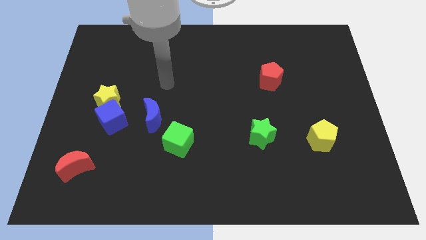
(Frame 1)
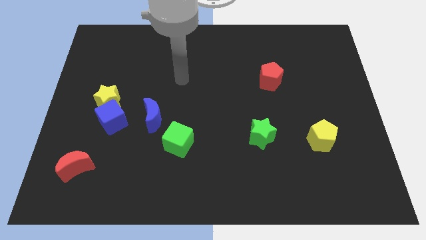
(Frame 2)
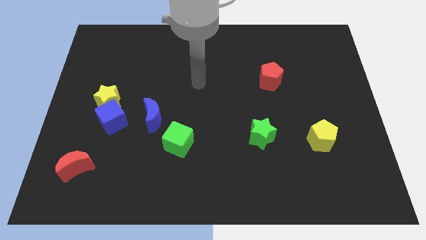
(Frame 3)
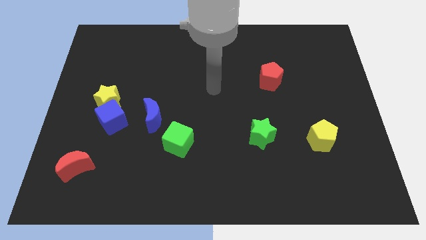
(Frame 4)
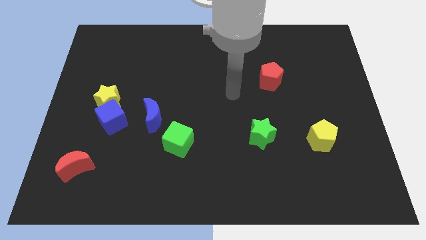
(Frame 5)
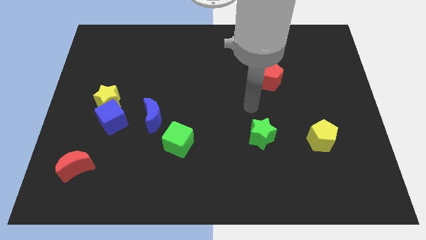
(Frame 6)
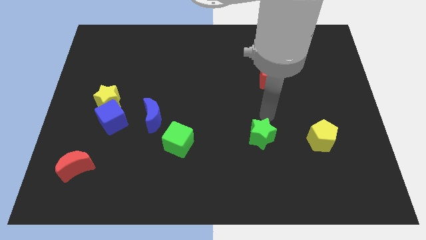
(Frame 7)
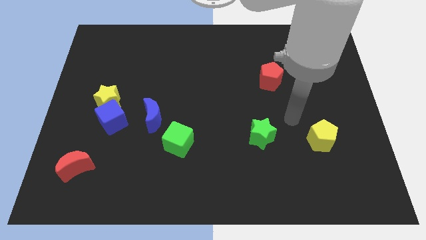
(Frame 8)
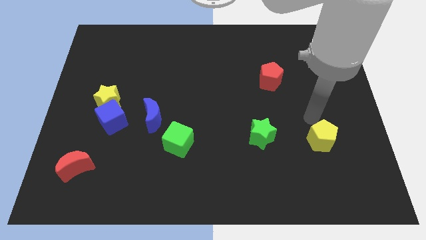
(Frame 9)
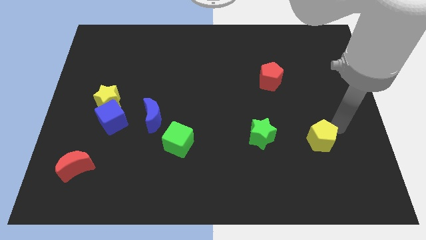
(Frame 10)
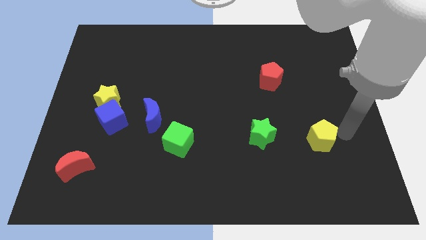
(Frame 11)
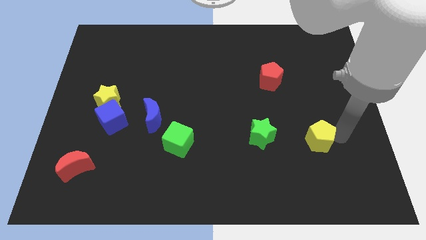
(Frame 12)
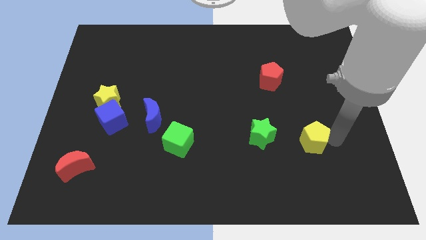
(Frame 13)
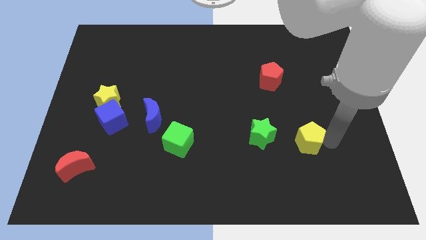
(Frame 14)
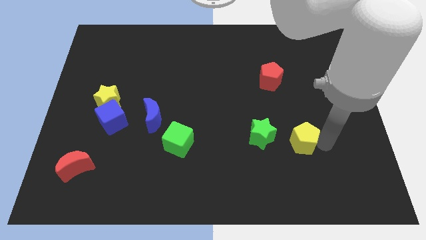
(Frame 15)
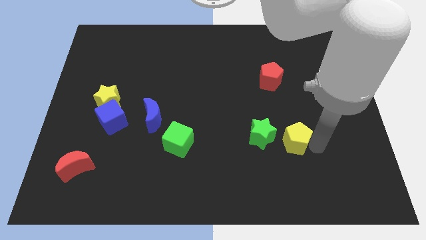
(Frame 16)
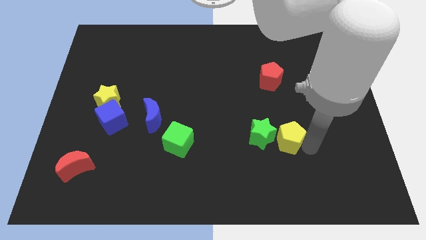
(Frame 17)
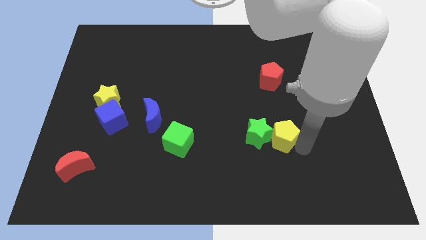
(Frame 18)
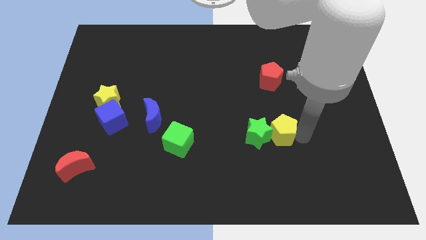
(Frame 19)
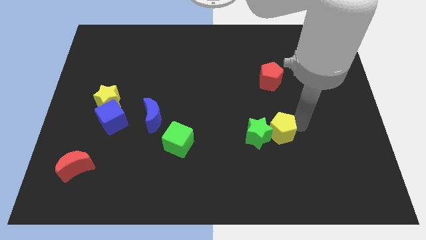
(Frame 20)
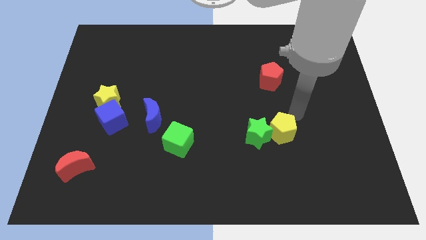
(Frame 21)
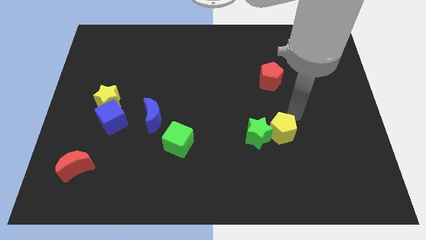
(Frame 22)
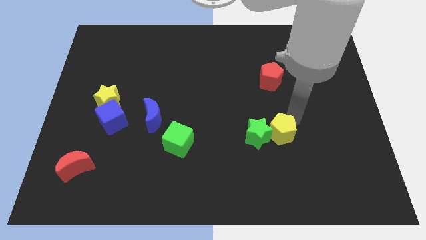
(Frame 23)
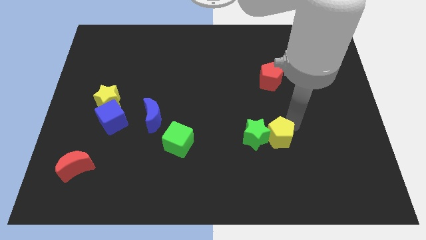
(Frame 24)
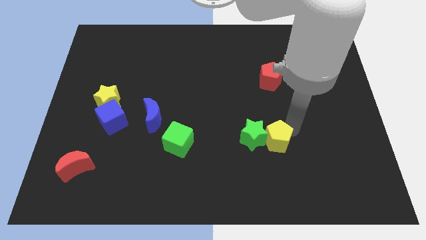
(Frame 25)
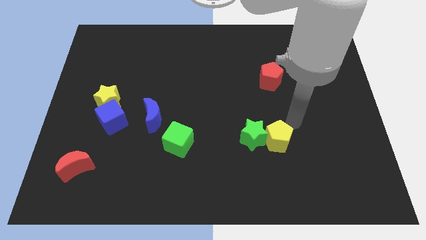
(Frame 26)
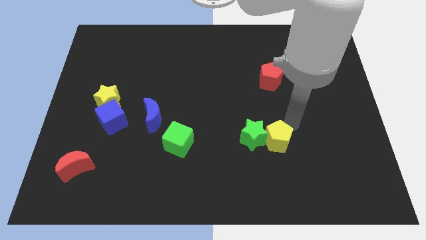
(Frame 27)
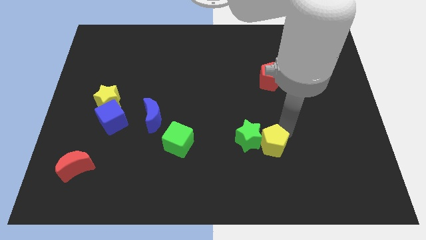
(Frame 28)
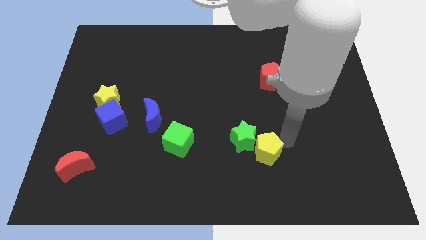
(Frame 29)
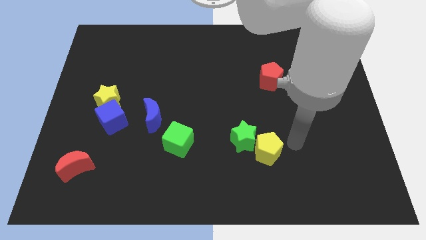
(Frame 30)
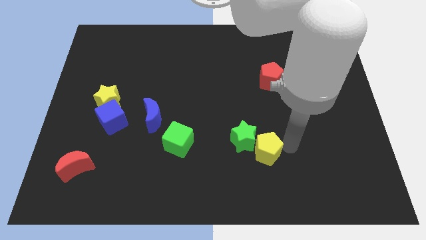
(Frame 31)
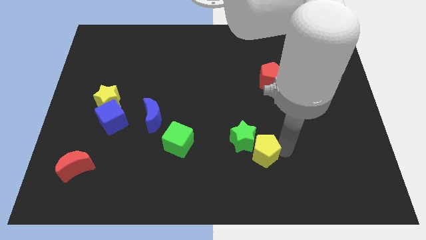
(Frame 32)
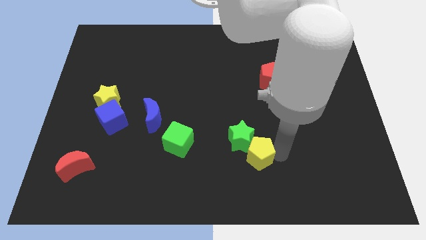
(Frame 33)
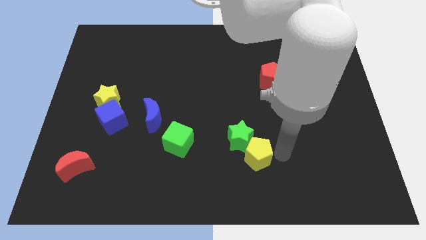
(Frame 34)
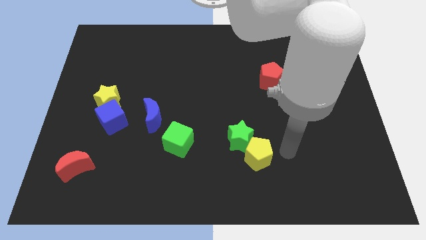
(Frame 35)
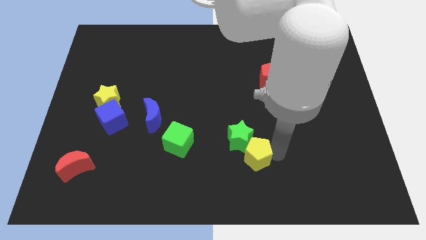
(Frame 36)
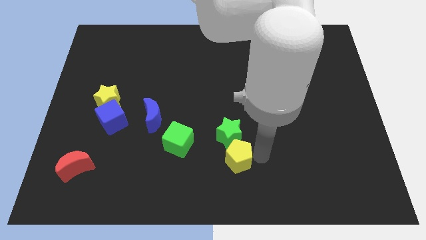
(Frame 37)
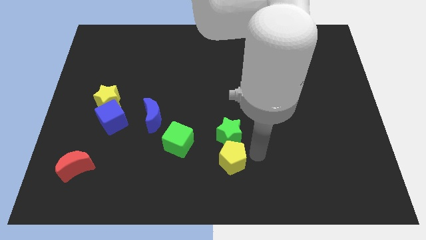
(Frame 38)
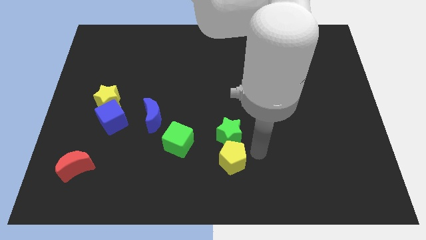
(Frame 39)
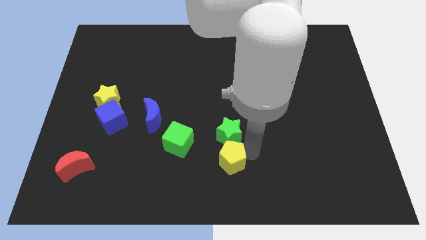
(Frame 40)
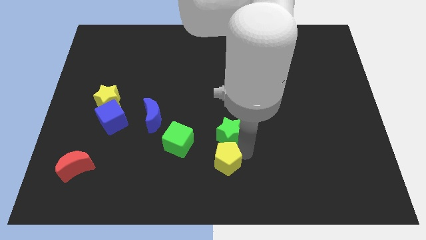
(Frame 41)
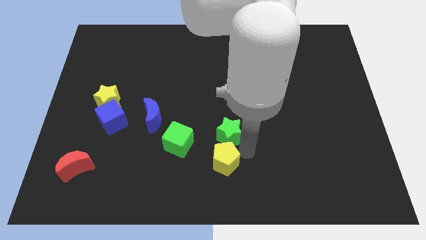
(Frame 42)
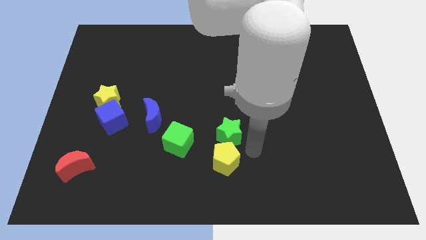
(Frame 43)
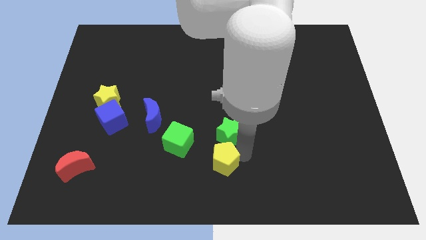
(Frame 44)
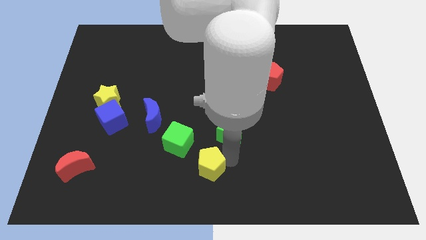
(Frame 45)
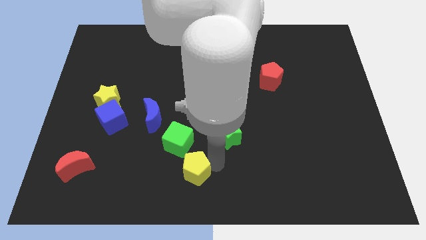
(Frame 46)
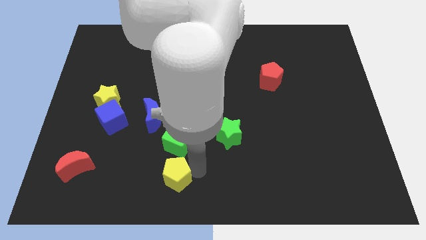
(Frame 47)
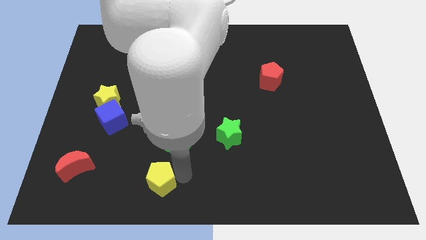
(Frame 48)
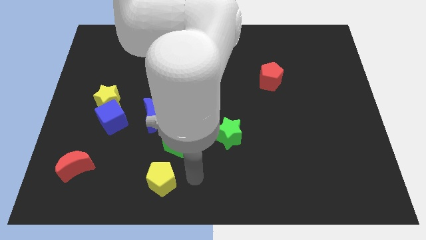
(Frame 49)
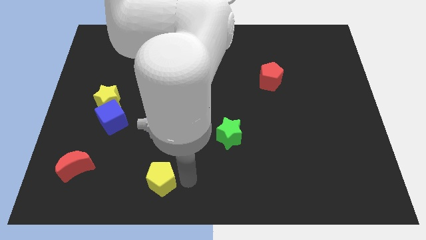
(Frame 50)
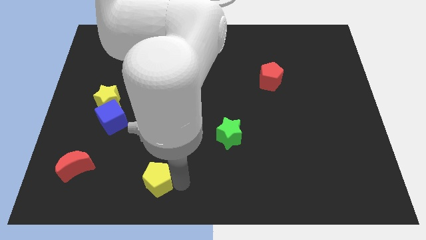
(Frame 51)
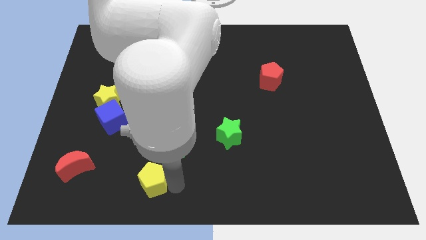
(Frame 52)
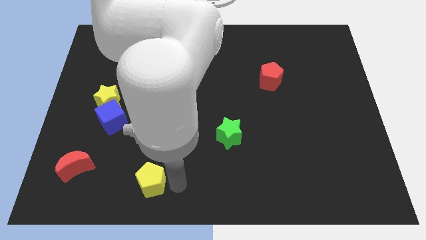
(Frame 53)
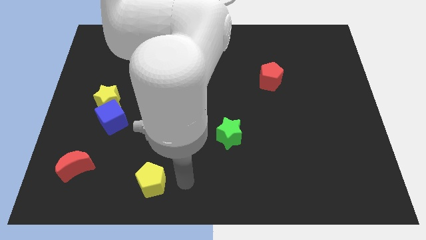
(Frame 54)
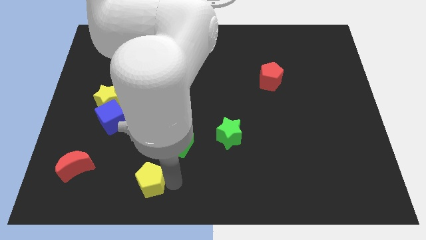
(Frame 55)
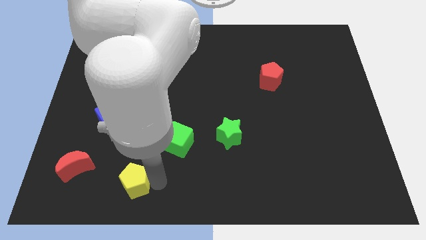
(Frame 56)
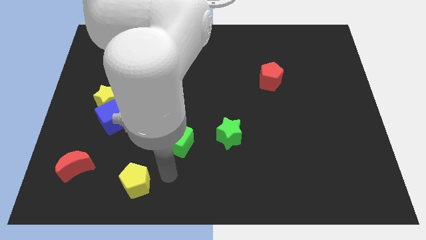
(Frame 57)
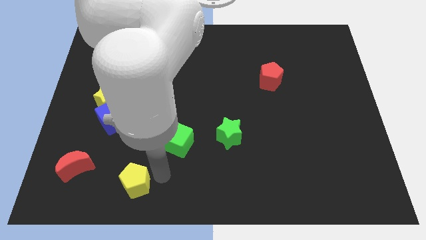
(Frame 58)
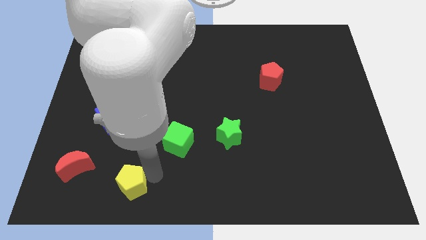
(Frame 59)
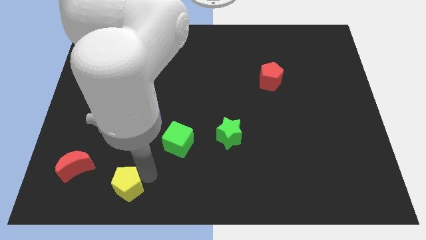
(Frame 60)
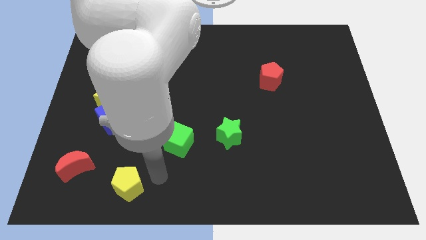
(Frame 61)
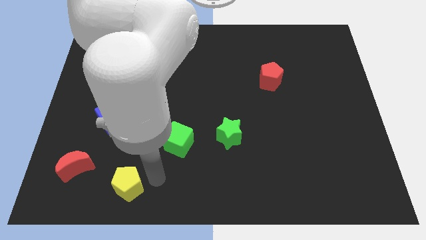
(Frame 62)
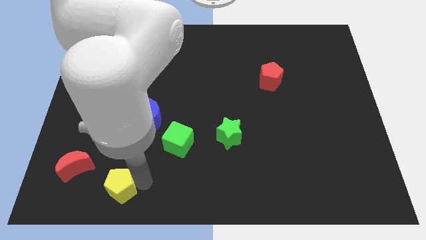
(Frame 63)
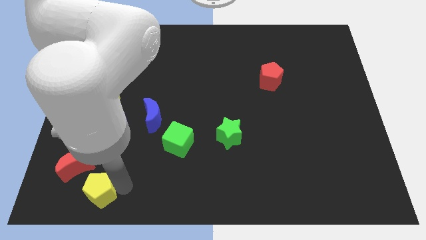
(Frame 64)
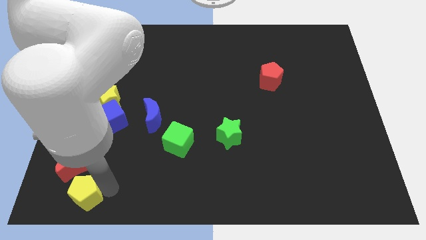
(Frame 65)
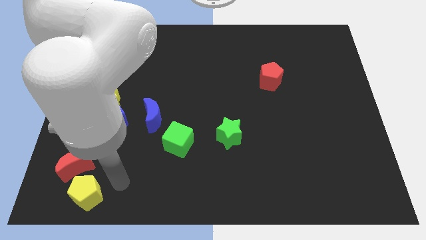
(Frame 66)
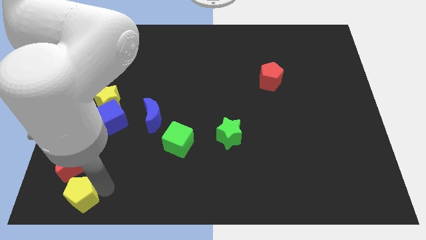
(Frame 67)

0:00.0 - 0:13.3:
push the yellow pentagon to the bottom left corner

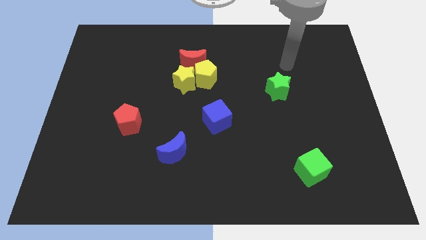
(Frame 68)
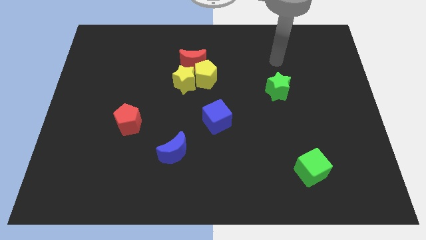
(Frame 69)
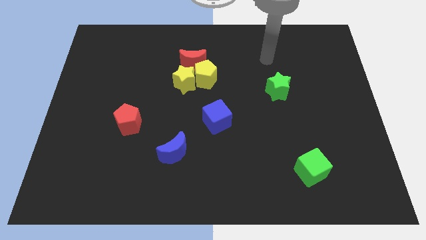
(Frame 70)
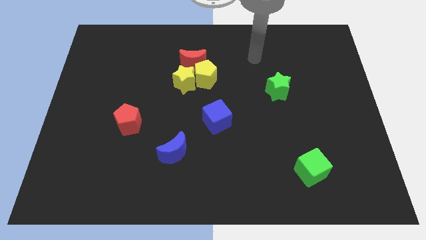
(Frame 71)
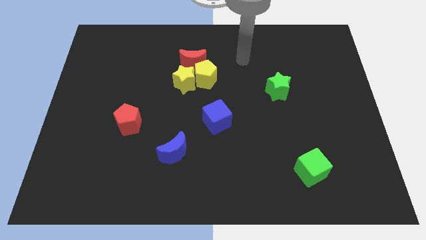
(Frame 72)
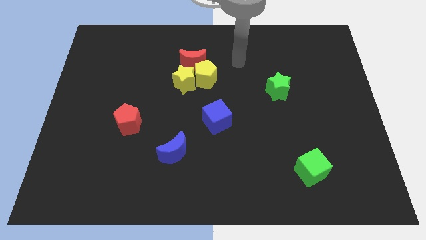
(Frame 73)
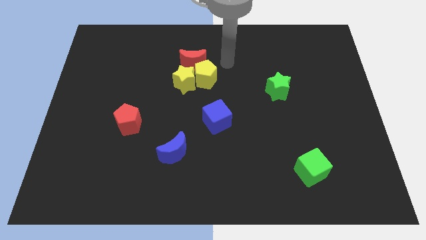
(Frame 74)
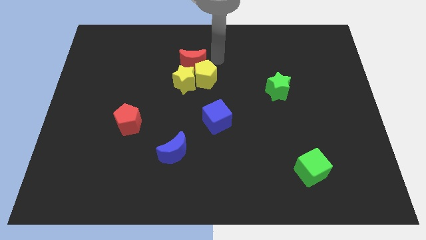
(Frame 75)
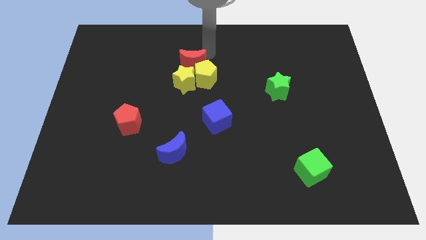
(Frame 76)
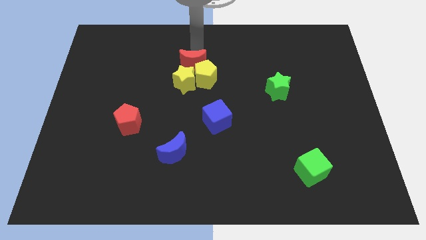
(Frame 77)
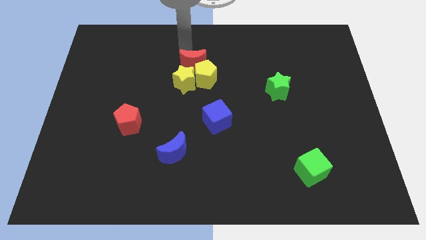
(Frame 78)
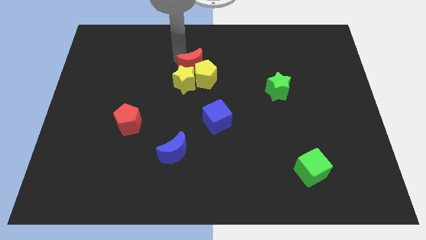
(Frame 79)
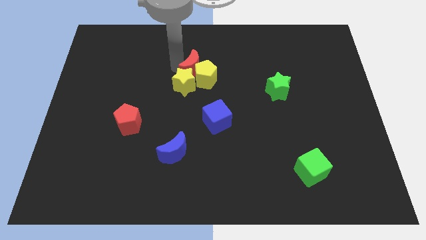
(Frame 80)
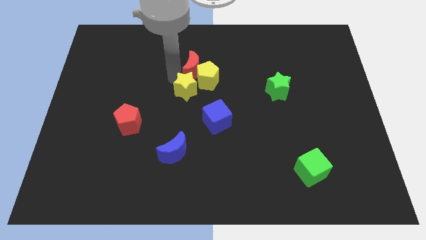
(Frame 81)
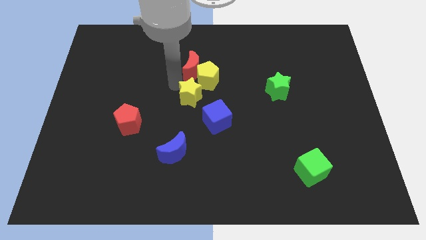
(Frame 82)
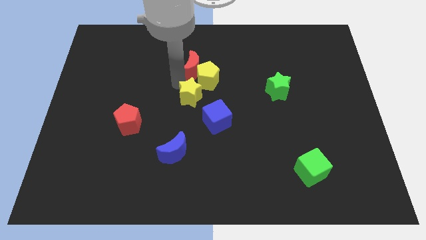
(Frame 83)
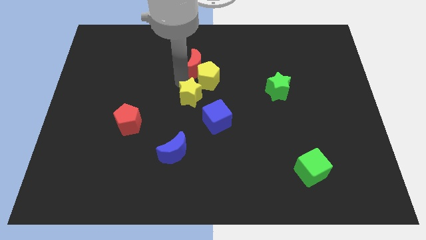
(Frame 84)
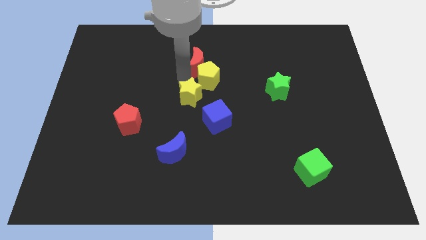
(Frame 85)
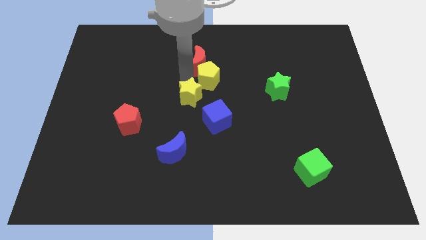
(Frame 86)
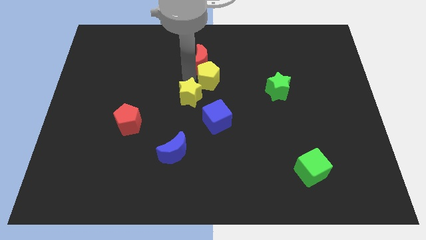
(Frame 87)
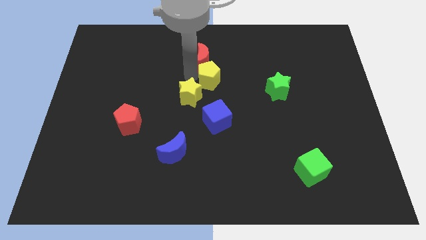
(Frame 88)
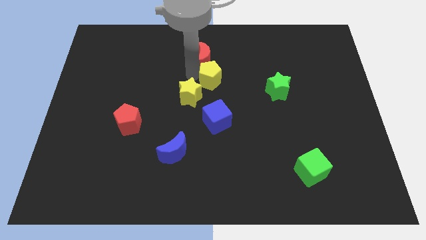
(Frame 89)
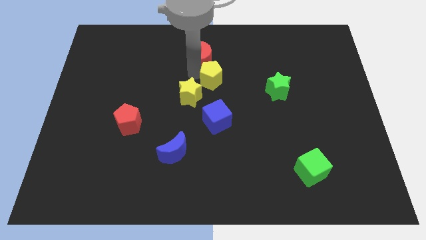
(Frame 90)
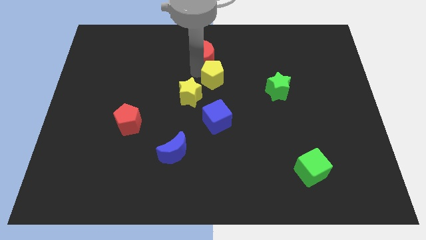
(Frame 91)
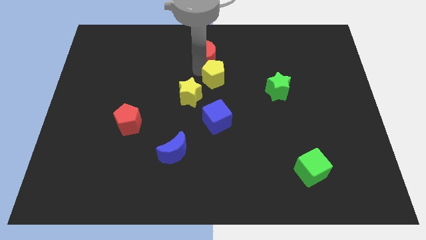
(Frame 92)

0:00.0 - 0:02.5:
put the red moon to the towards your base
